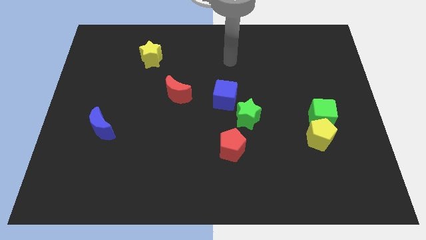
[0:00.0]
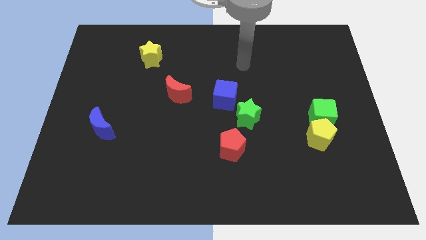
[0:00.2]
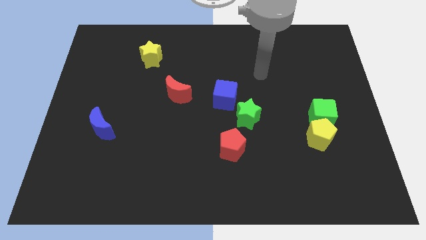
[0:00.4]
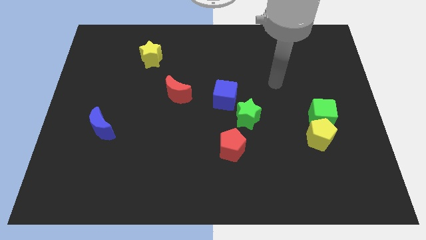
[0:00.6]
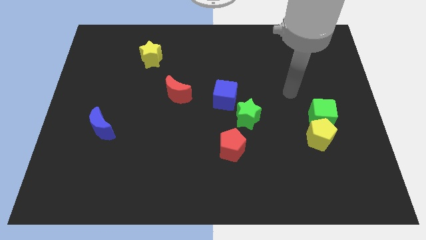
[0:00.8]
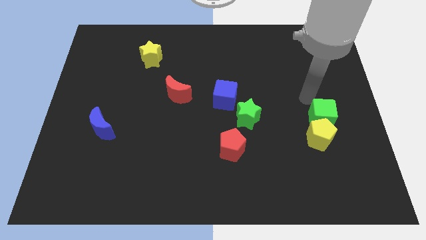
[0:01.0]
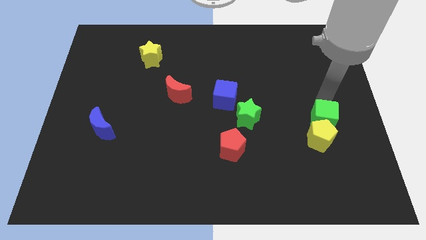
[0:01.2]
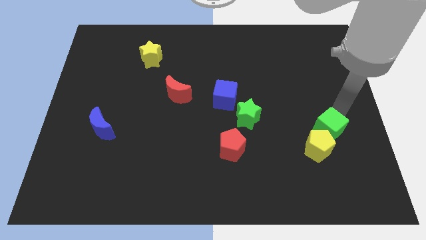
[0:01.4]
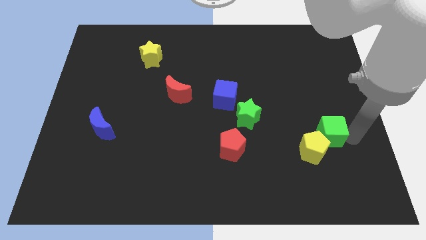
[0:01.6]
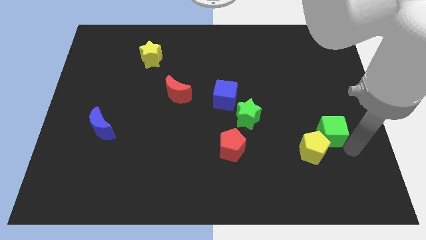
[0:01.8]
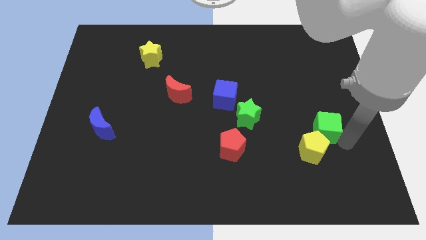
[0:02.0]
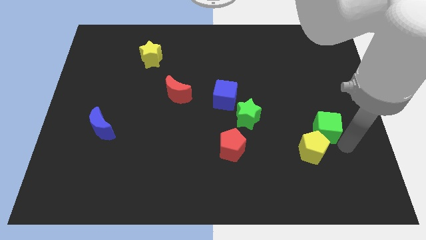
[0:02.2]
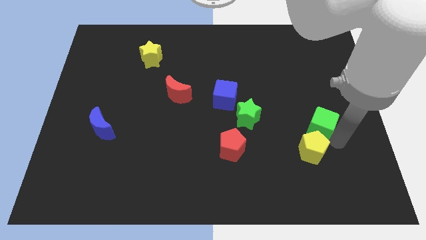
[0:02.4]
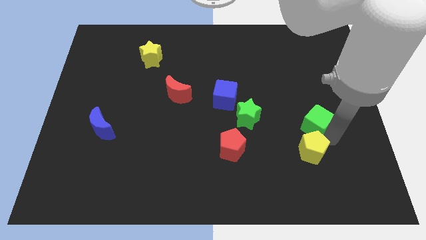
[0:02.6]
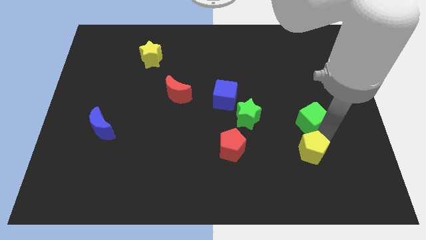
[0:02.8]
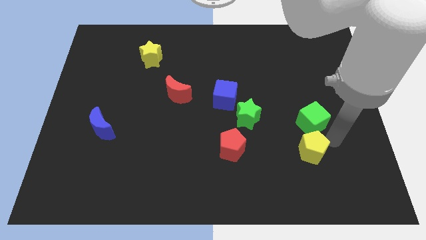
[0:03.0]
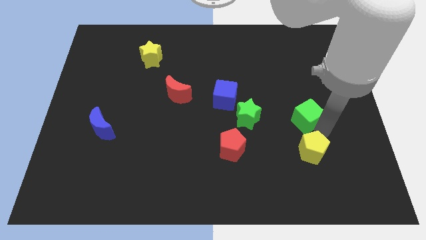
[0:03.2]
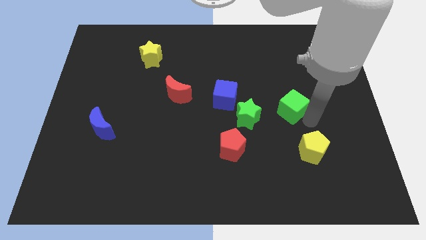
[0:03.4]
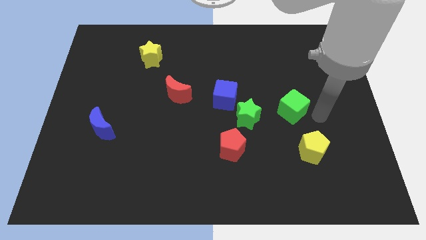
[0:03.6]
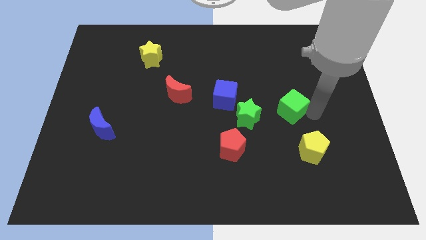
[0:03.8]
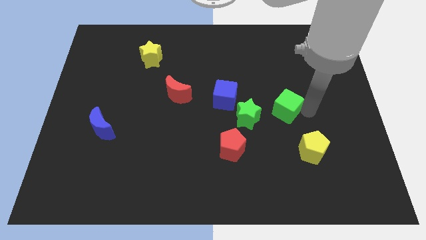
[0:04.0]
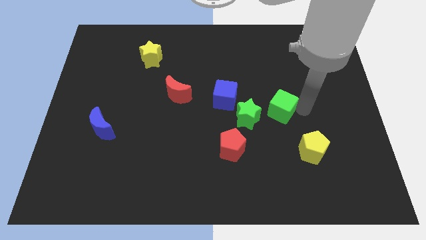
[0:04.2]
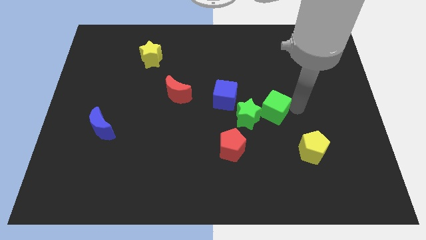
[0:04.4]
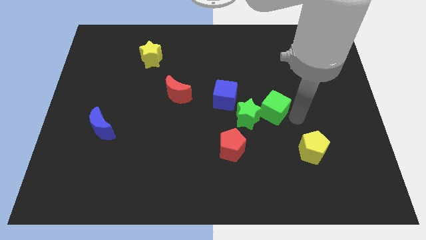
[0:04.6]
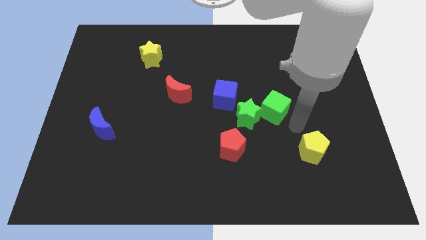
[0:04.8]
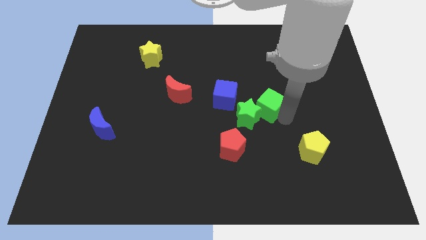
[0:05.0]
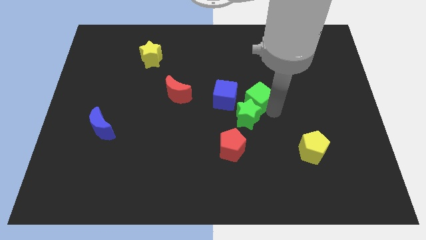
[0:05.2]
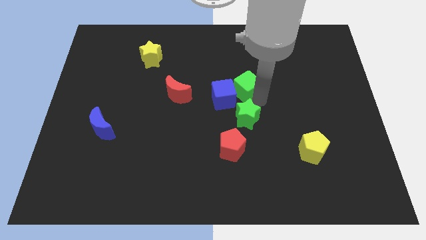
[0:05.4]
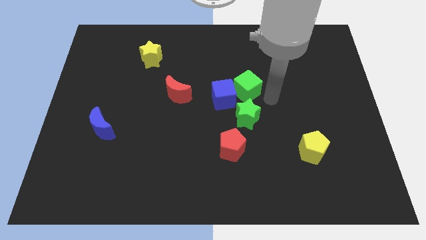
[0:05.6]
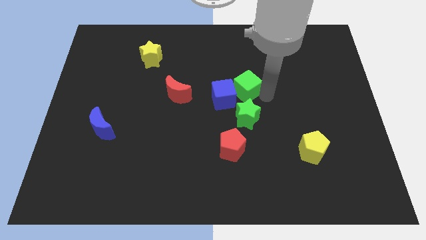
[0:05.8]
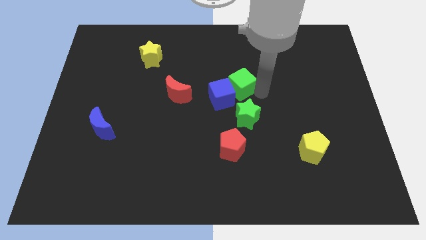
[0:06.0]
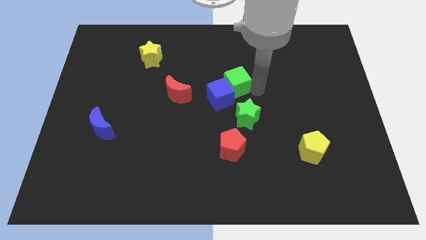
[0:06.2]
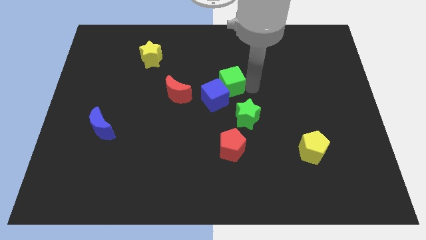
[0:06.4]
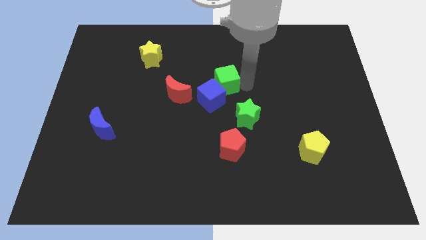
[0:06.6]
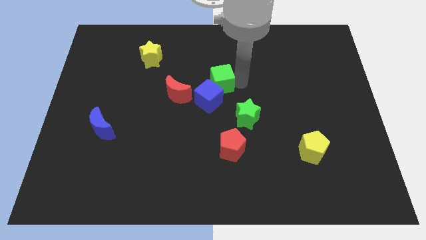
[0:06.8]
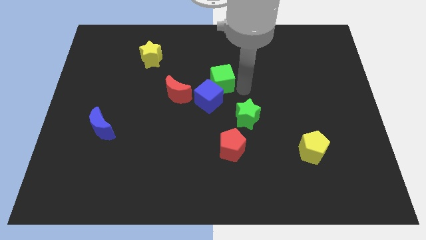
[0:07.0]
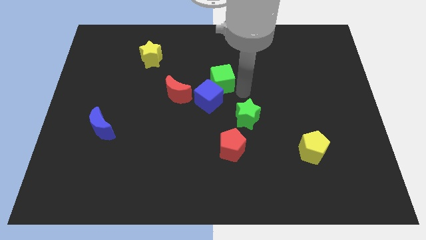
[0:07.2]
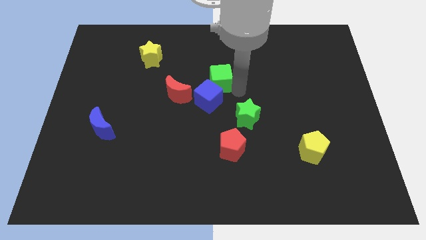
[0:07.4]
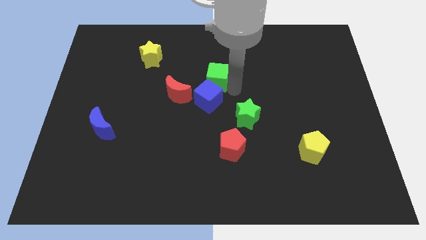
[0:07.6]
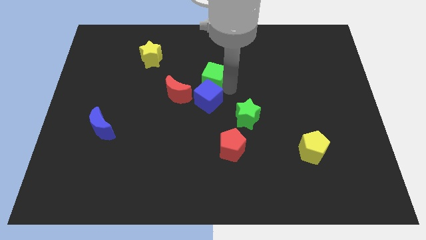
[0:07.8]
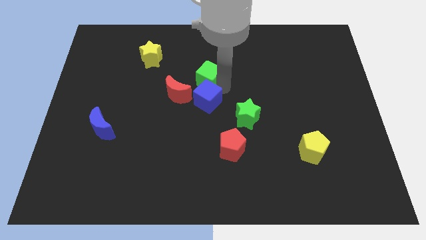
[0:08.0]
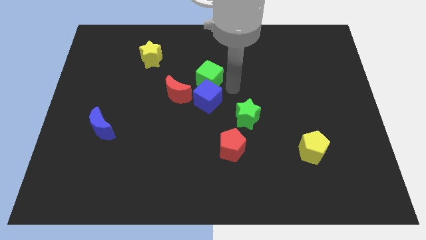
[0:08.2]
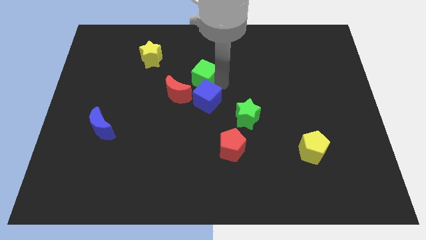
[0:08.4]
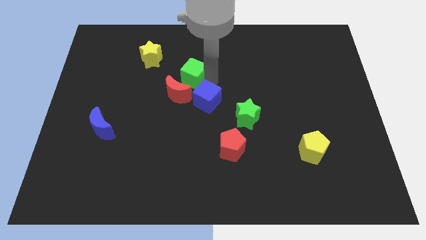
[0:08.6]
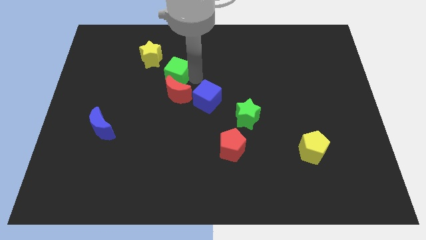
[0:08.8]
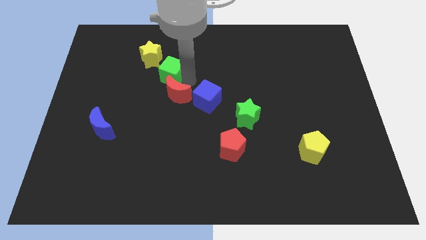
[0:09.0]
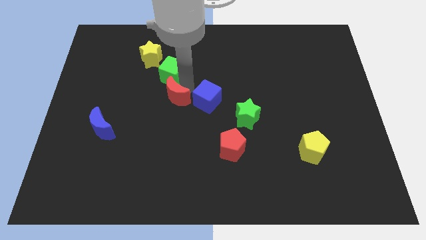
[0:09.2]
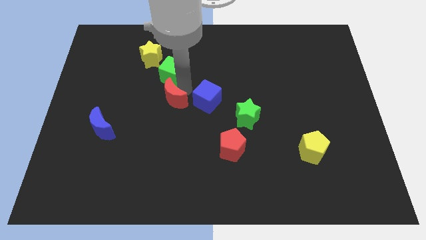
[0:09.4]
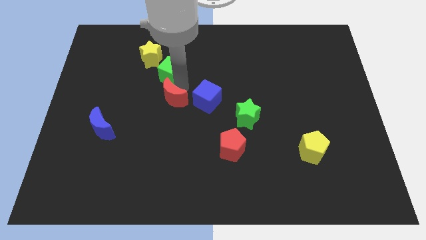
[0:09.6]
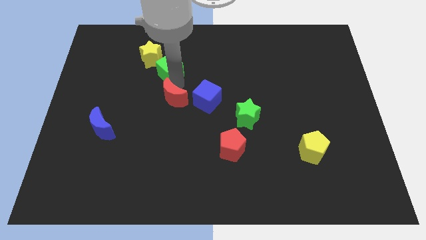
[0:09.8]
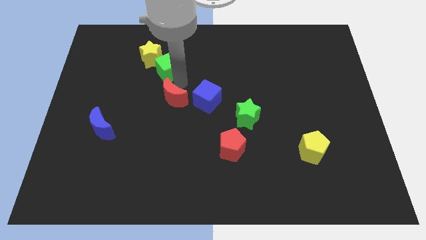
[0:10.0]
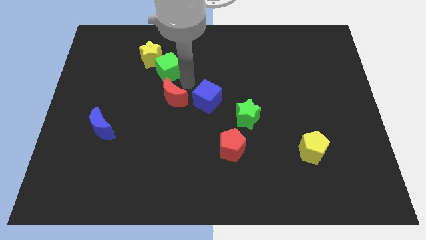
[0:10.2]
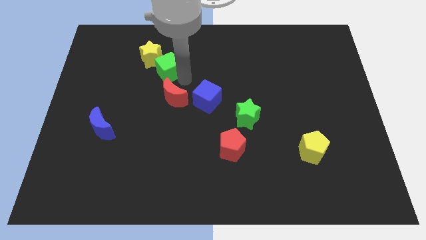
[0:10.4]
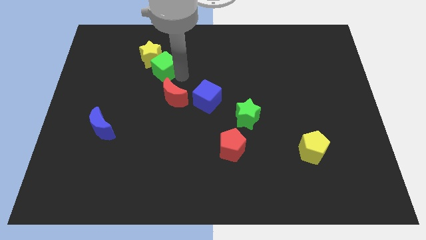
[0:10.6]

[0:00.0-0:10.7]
push the green cube next to the yellow star

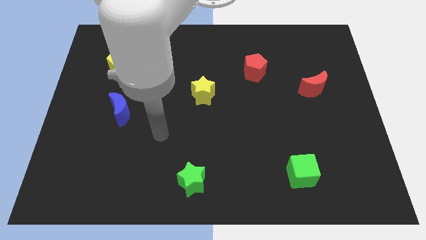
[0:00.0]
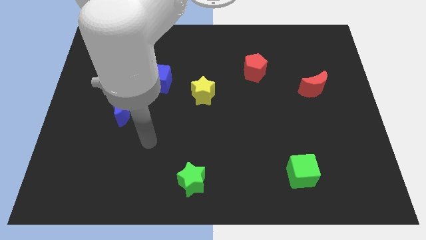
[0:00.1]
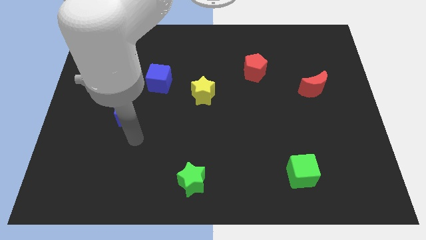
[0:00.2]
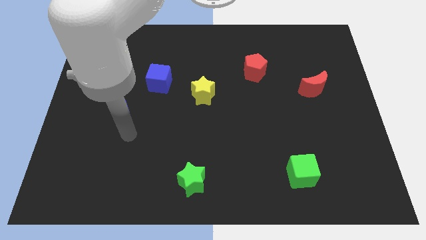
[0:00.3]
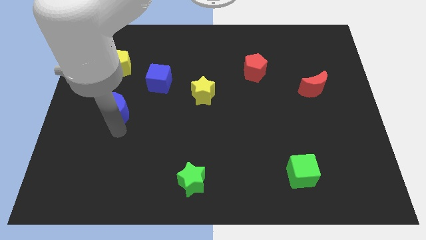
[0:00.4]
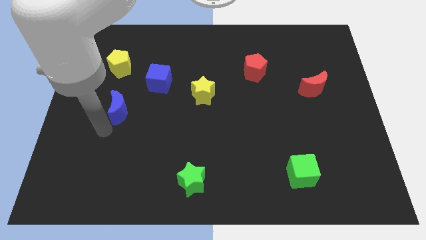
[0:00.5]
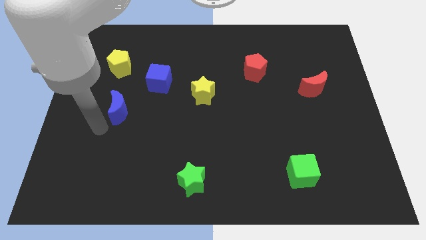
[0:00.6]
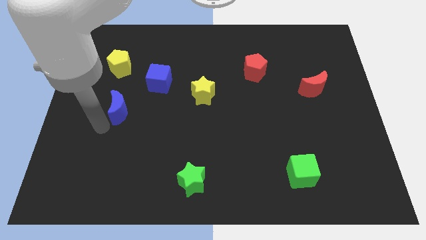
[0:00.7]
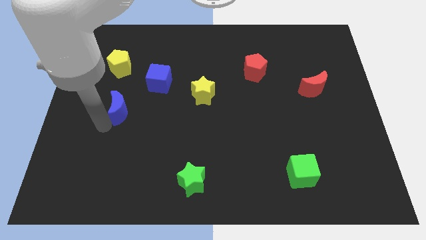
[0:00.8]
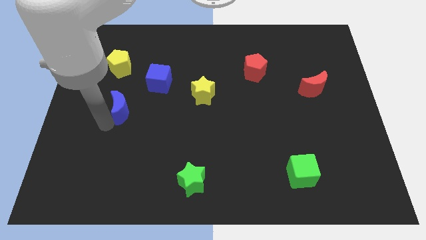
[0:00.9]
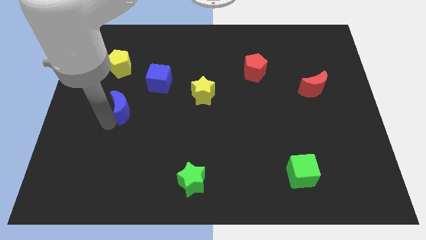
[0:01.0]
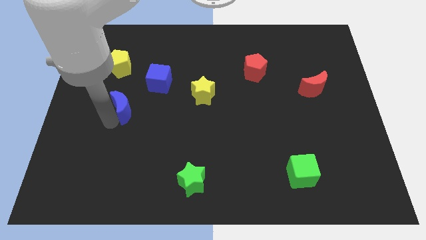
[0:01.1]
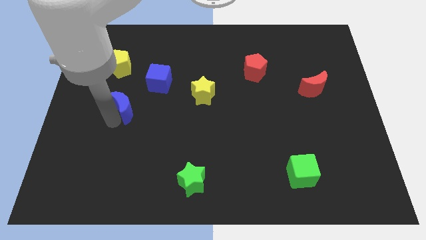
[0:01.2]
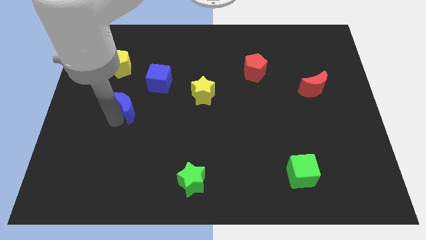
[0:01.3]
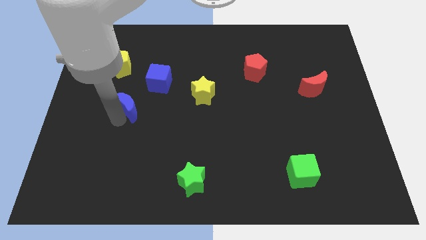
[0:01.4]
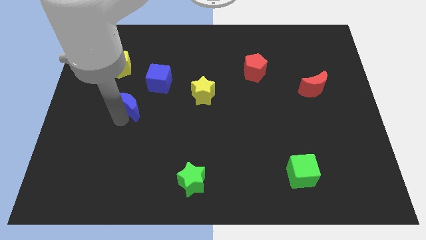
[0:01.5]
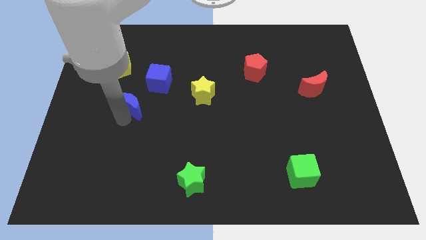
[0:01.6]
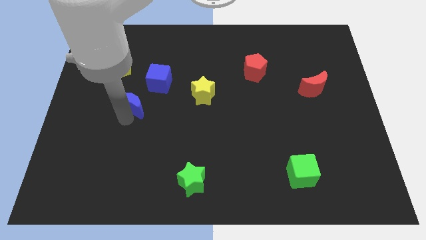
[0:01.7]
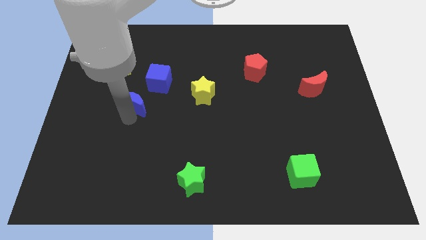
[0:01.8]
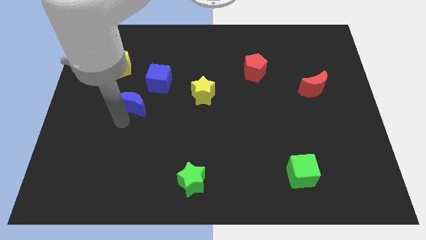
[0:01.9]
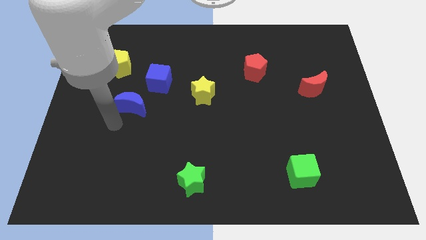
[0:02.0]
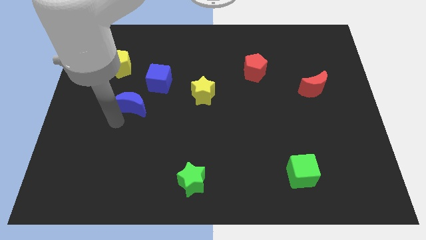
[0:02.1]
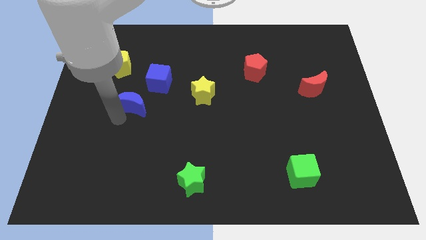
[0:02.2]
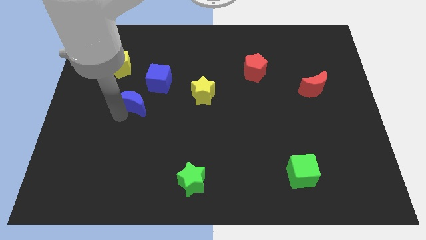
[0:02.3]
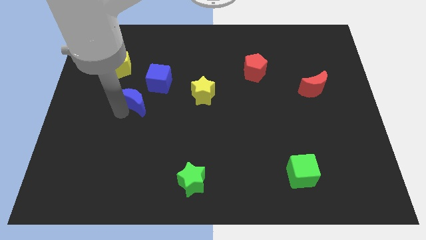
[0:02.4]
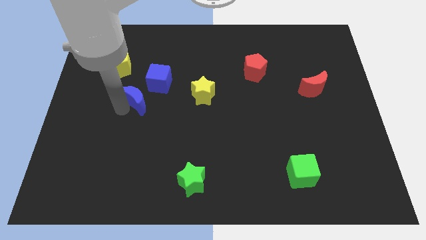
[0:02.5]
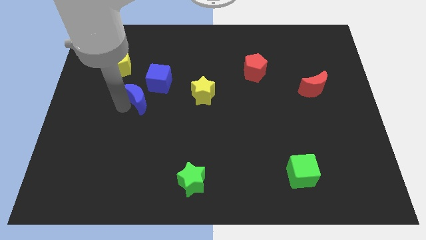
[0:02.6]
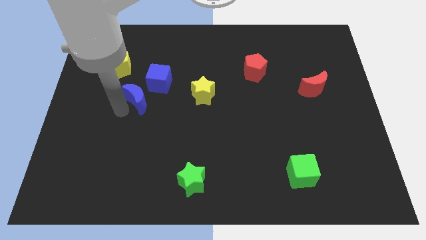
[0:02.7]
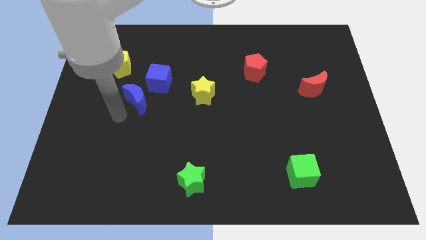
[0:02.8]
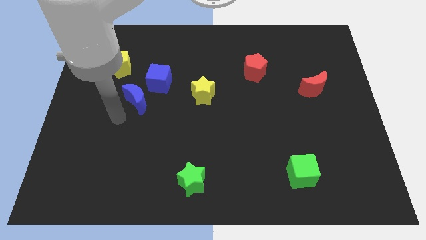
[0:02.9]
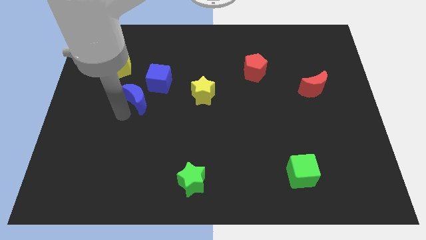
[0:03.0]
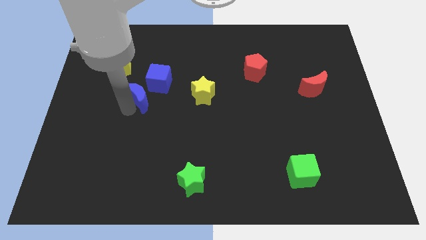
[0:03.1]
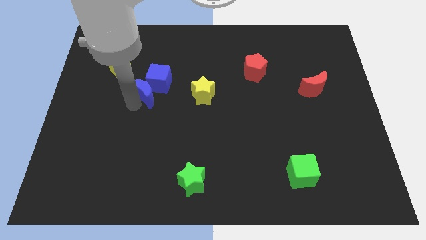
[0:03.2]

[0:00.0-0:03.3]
slide the blue moon close to the blue cube
